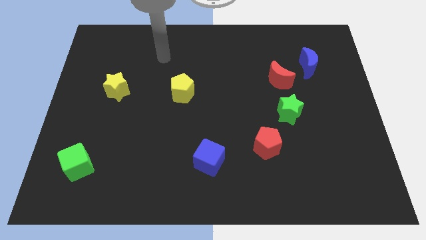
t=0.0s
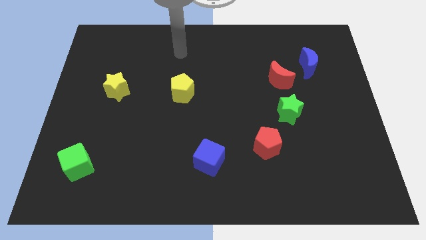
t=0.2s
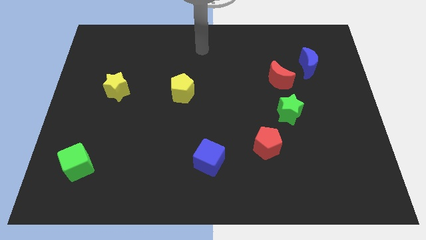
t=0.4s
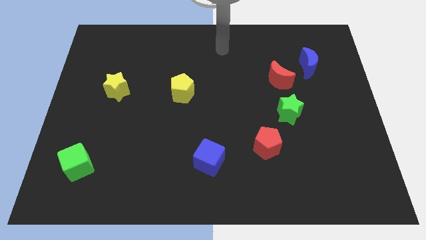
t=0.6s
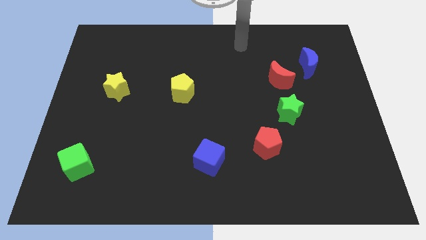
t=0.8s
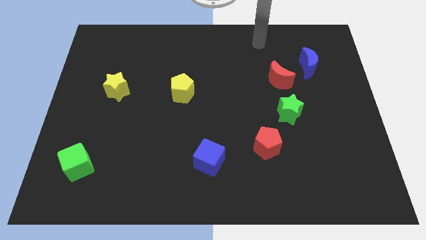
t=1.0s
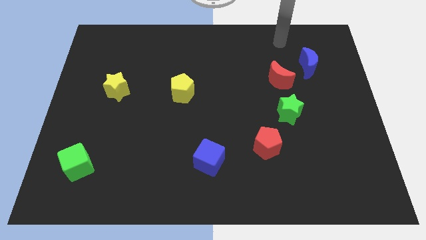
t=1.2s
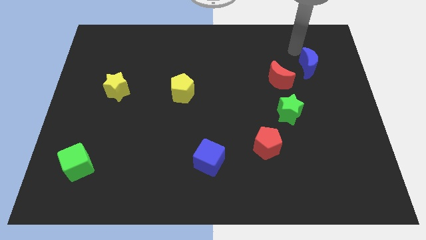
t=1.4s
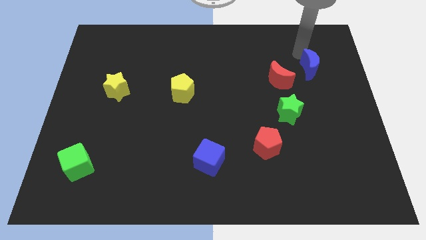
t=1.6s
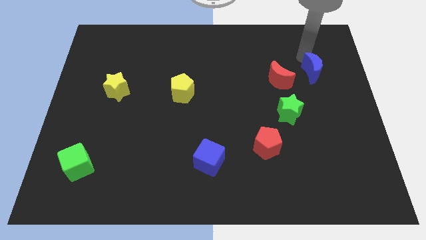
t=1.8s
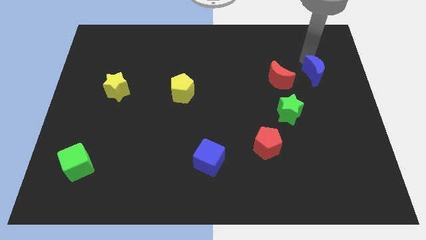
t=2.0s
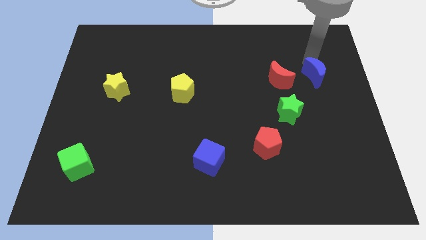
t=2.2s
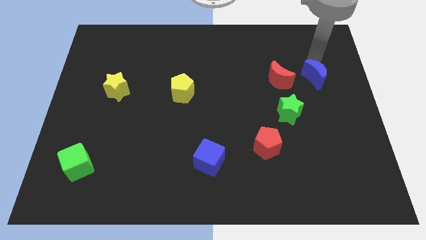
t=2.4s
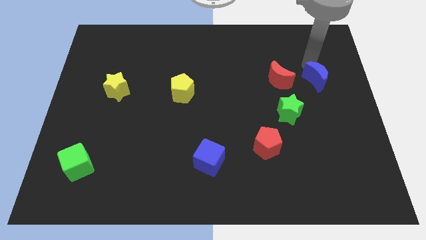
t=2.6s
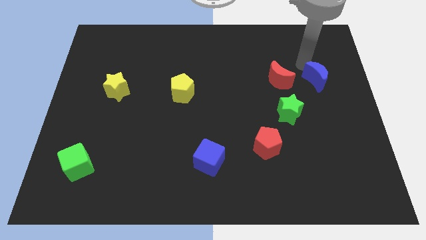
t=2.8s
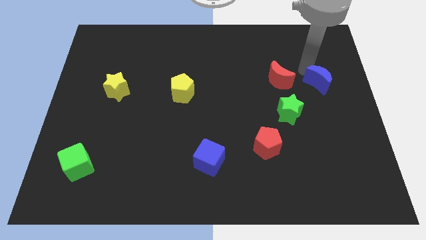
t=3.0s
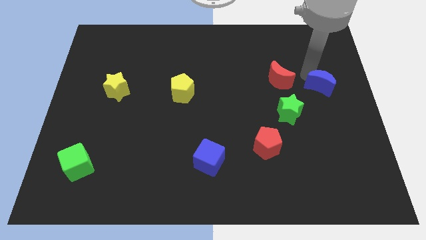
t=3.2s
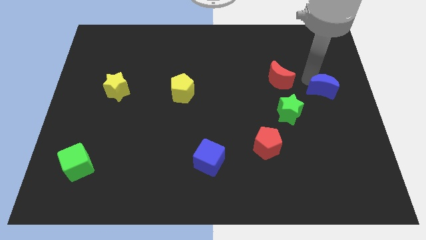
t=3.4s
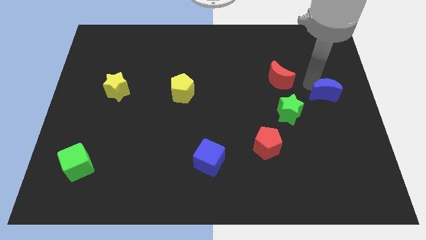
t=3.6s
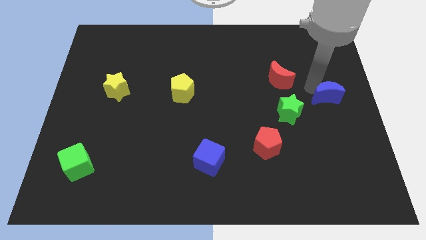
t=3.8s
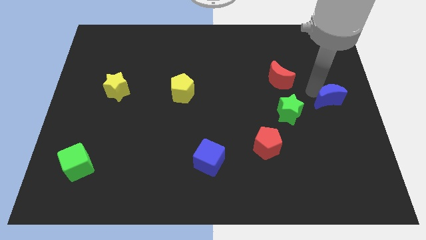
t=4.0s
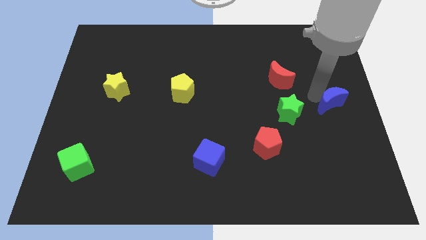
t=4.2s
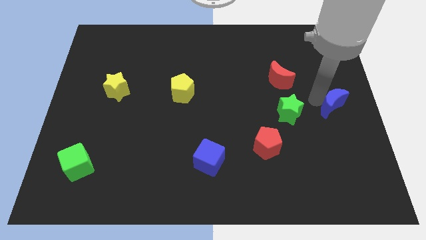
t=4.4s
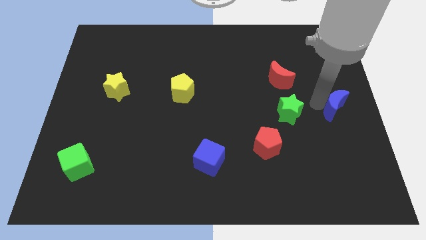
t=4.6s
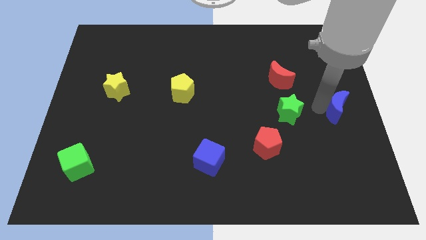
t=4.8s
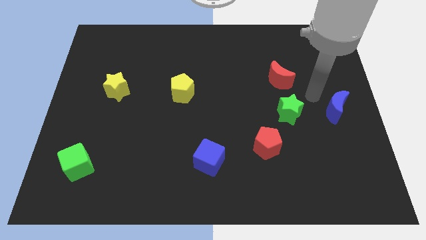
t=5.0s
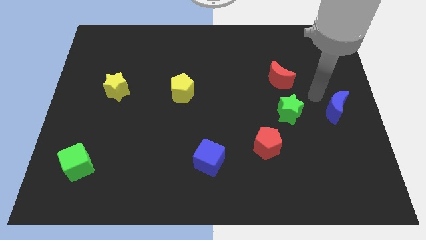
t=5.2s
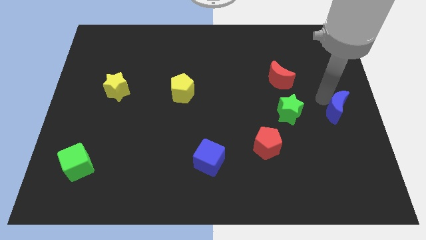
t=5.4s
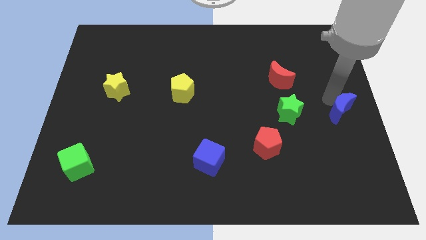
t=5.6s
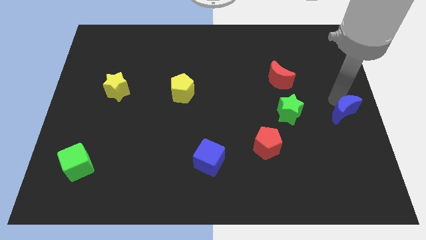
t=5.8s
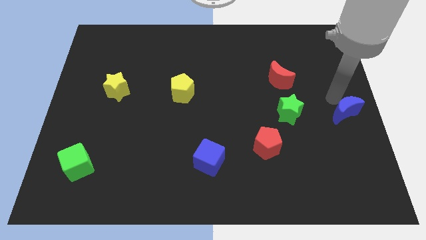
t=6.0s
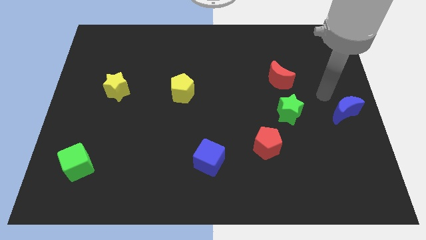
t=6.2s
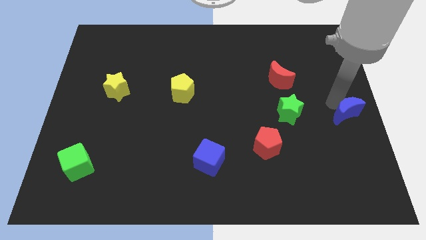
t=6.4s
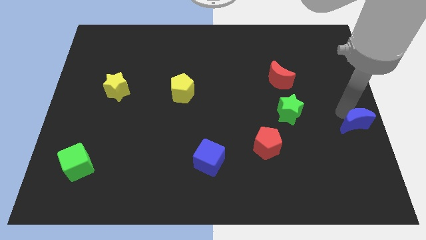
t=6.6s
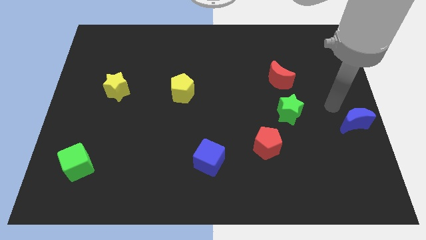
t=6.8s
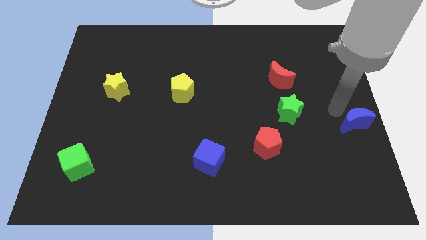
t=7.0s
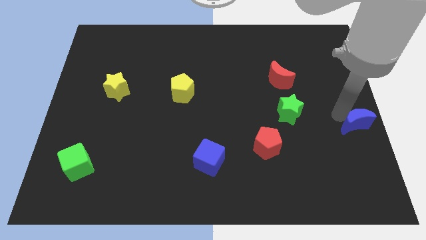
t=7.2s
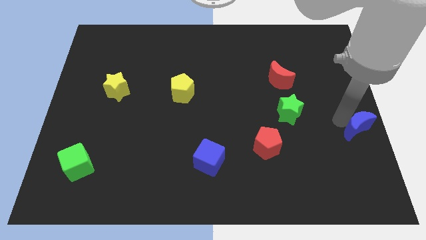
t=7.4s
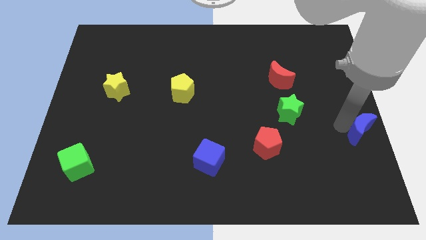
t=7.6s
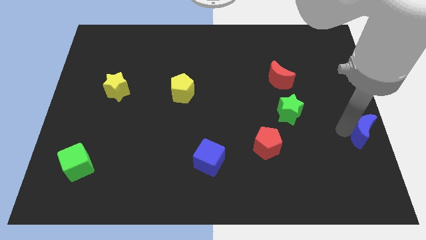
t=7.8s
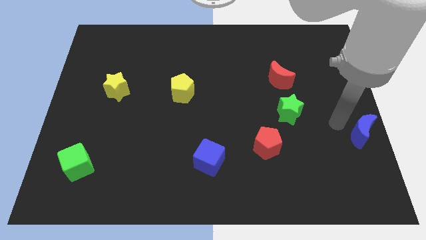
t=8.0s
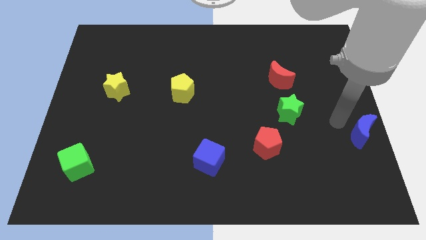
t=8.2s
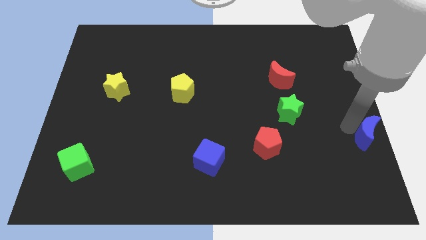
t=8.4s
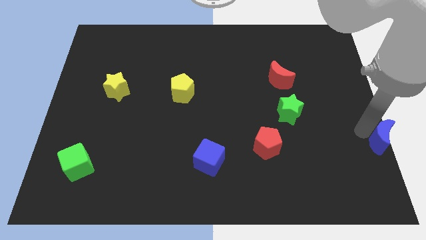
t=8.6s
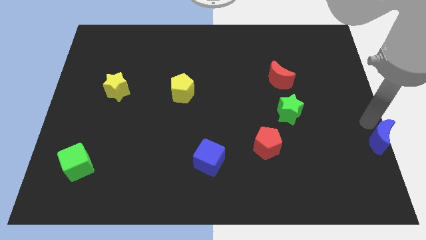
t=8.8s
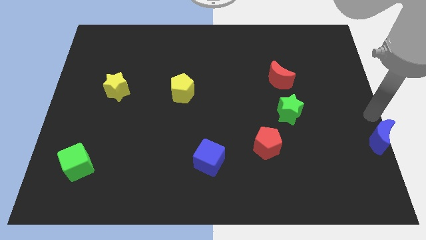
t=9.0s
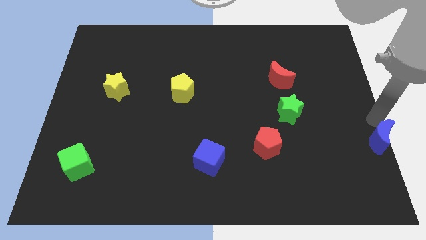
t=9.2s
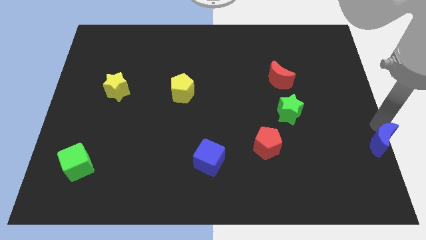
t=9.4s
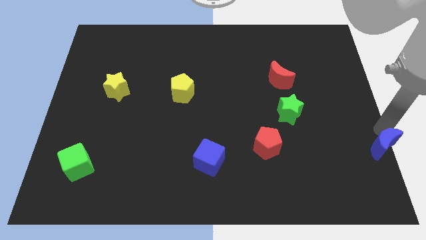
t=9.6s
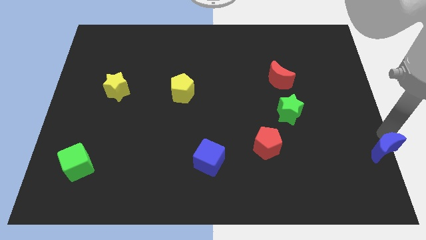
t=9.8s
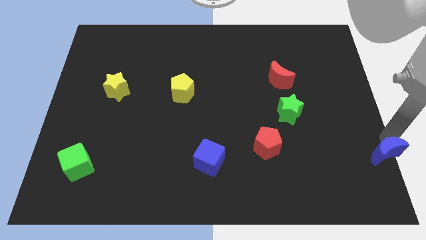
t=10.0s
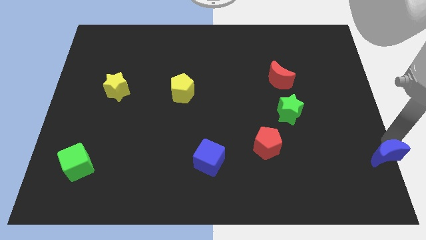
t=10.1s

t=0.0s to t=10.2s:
put the blue moon to the bottom right

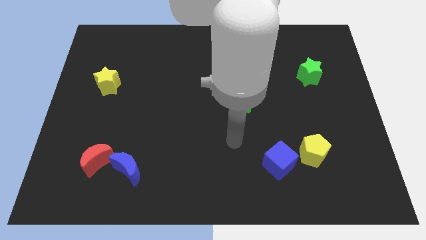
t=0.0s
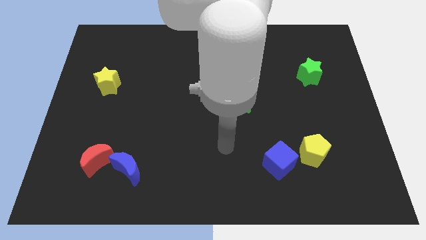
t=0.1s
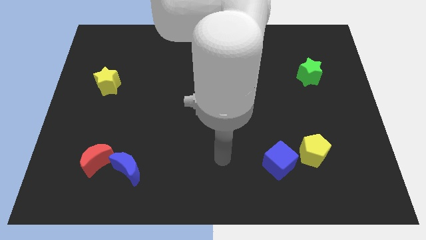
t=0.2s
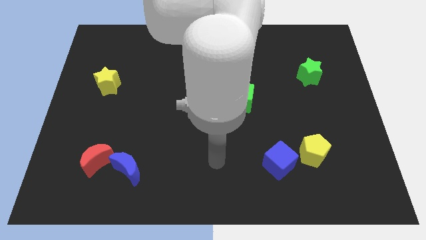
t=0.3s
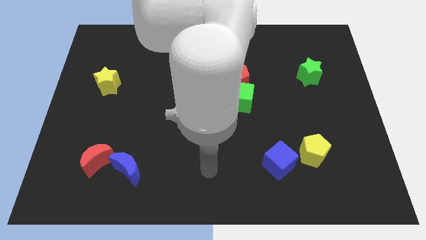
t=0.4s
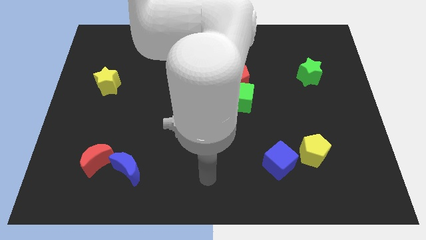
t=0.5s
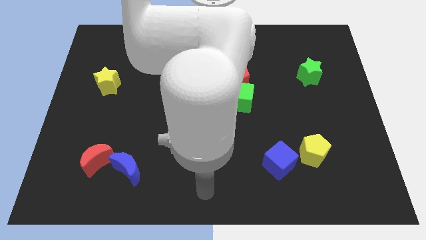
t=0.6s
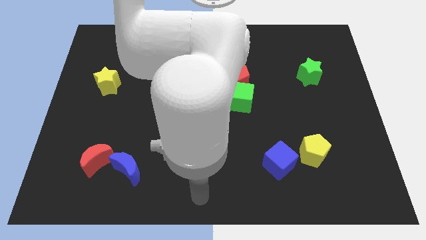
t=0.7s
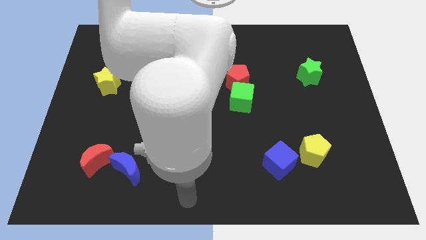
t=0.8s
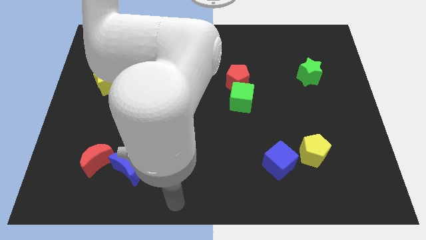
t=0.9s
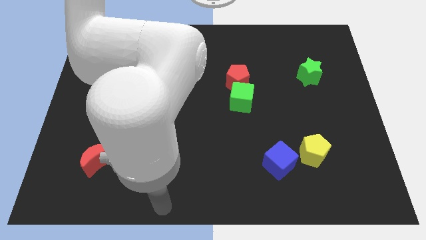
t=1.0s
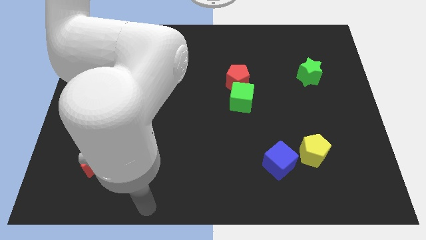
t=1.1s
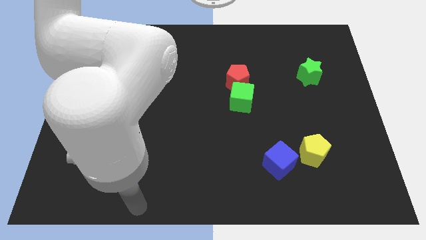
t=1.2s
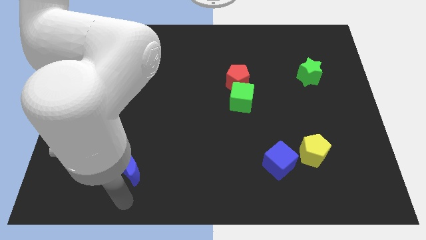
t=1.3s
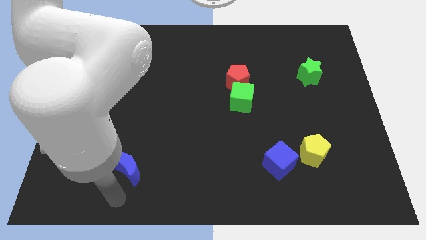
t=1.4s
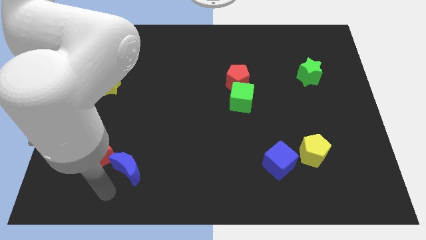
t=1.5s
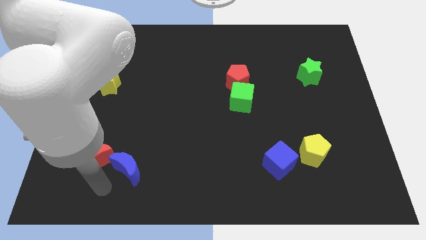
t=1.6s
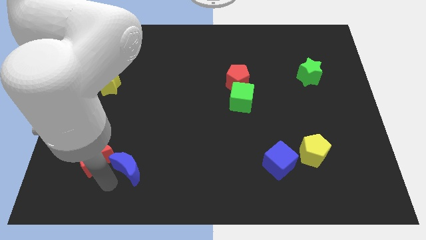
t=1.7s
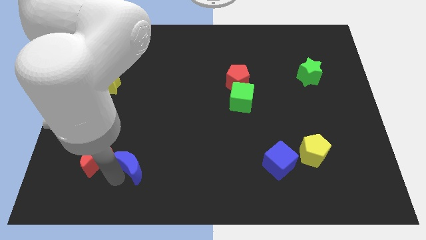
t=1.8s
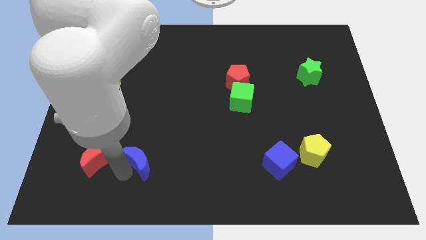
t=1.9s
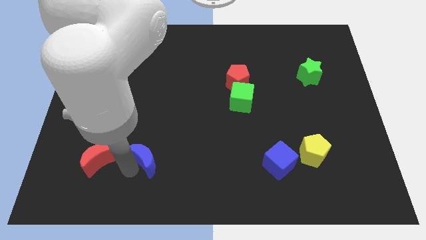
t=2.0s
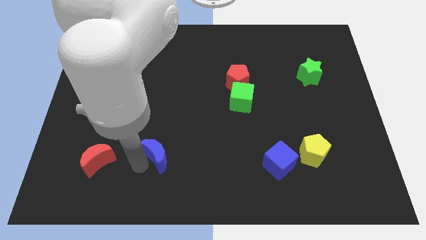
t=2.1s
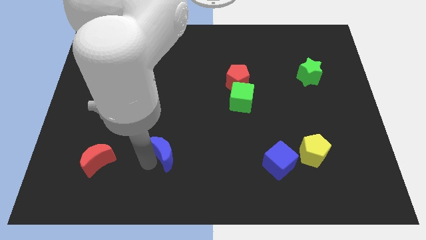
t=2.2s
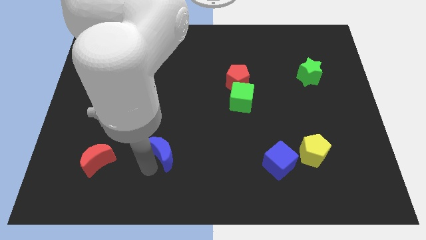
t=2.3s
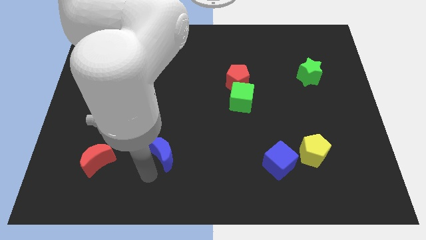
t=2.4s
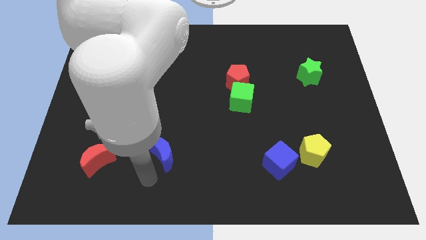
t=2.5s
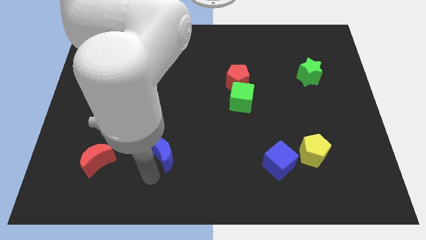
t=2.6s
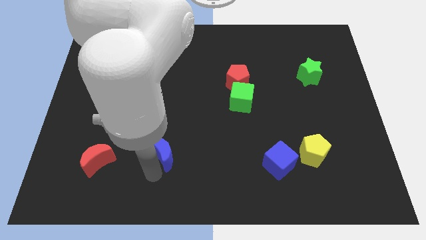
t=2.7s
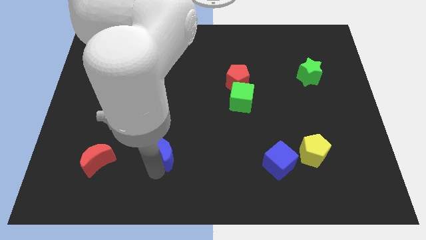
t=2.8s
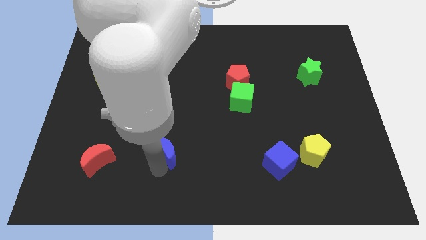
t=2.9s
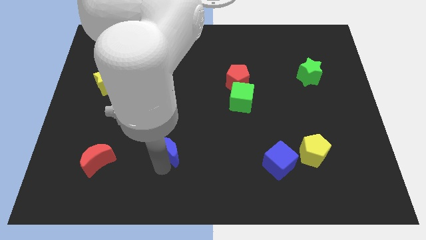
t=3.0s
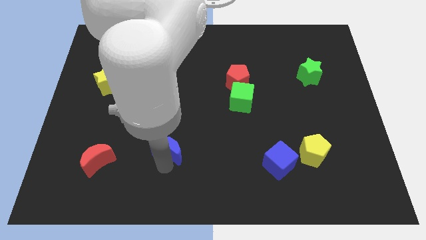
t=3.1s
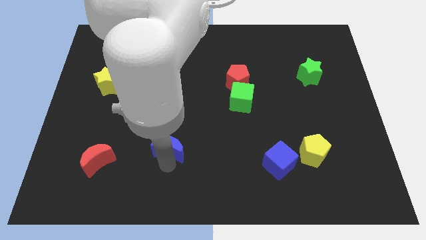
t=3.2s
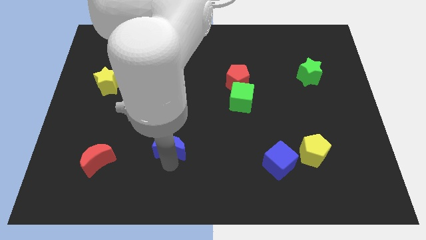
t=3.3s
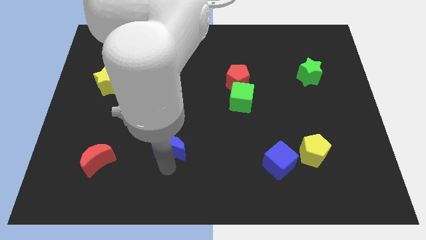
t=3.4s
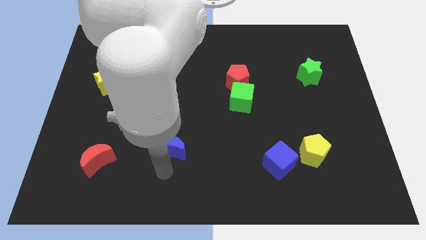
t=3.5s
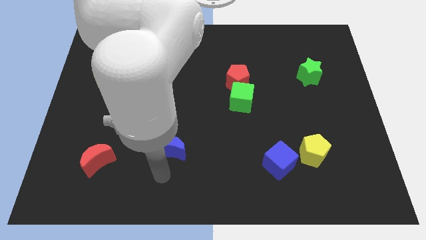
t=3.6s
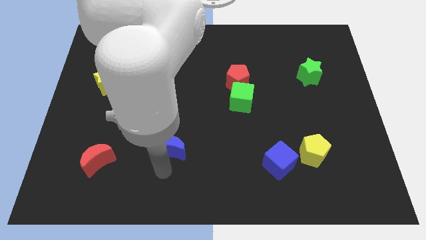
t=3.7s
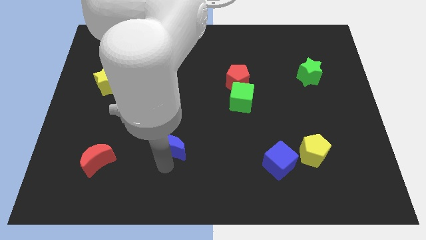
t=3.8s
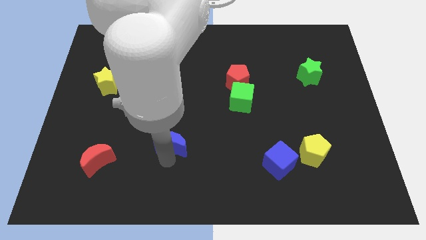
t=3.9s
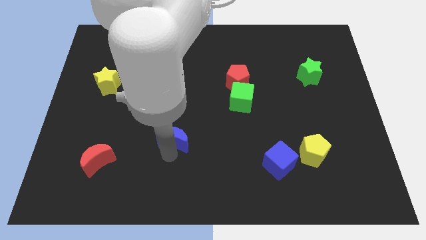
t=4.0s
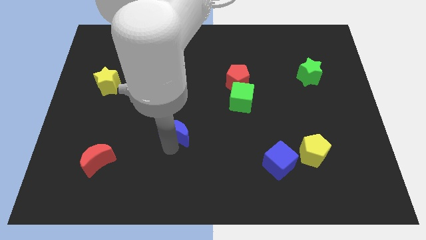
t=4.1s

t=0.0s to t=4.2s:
push the blue moon to the center of the board
